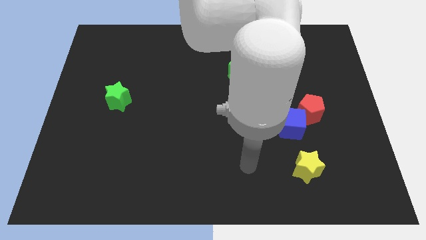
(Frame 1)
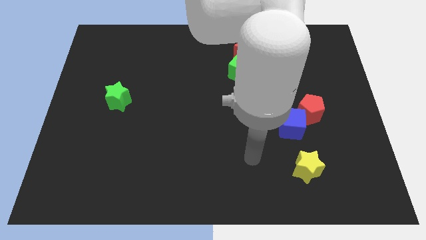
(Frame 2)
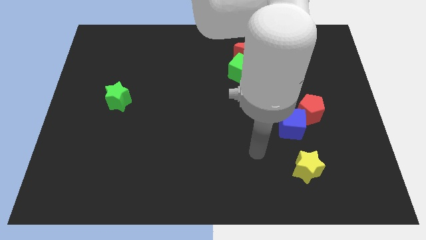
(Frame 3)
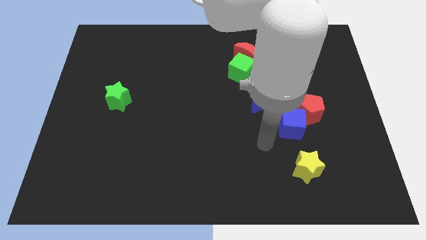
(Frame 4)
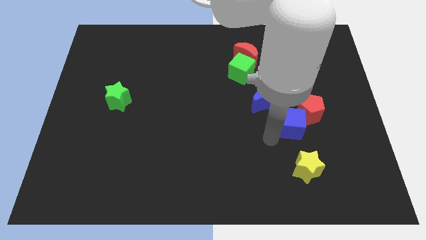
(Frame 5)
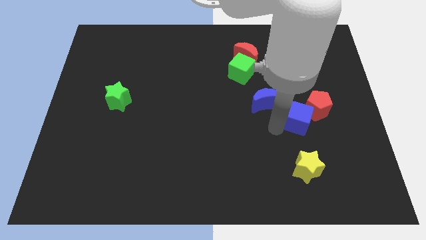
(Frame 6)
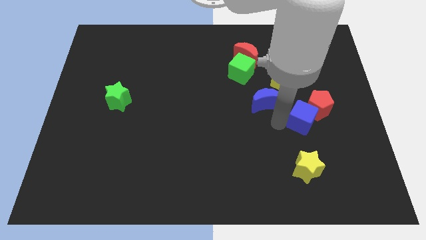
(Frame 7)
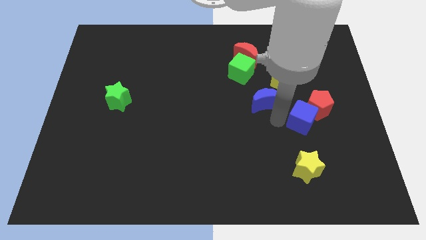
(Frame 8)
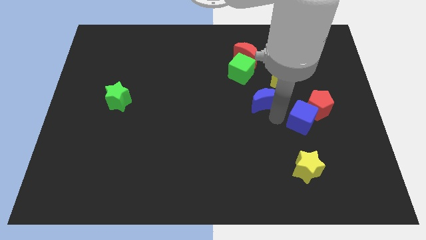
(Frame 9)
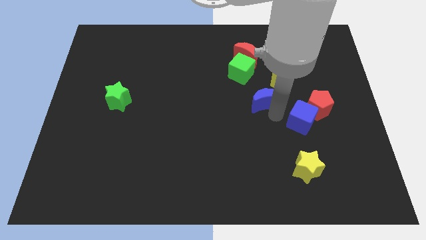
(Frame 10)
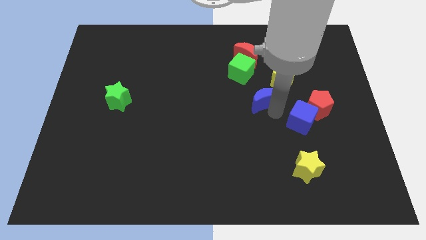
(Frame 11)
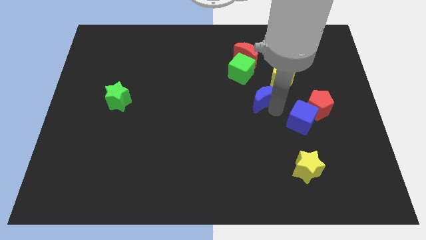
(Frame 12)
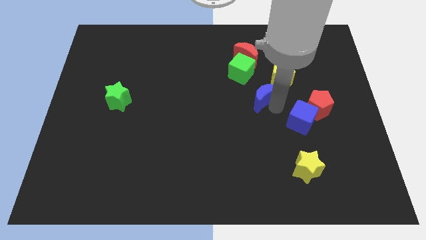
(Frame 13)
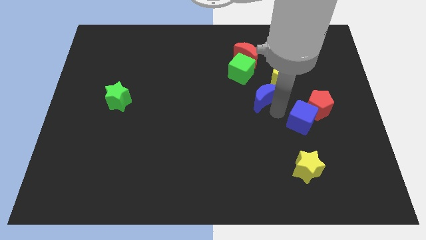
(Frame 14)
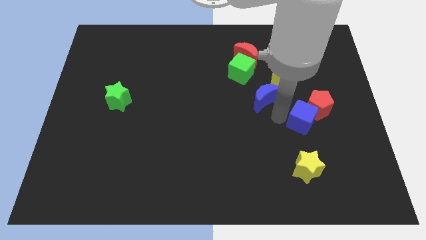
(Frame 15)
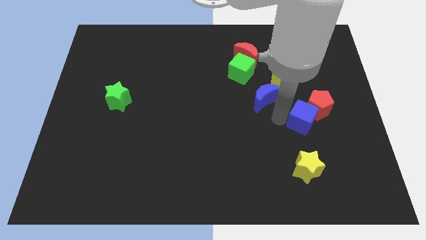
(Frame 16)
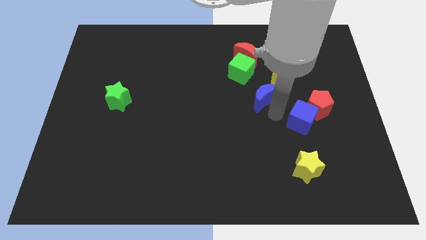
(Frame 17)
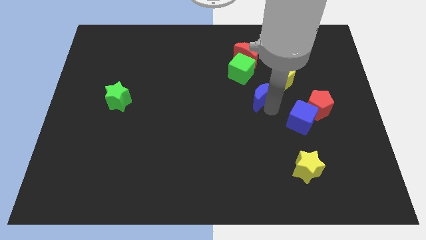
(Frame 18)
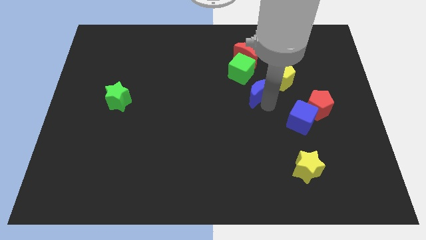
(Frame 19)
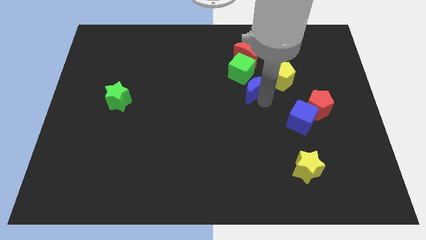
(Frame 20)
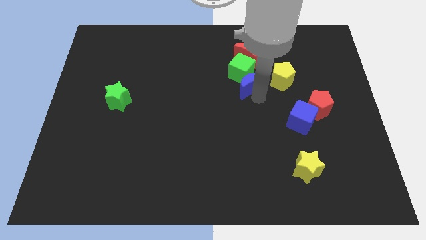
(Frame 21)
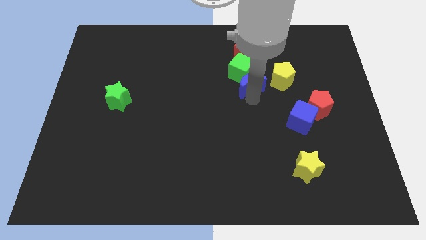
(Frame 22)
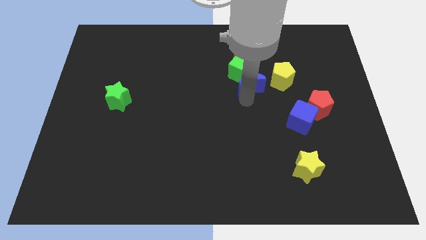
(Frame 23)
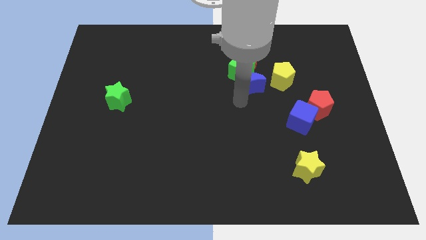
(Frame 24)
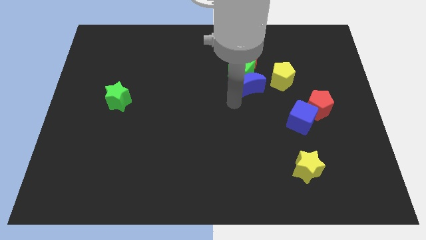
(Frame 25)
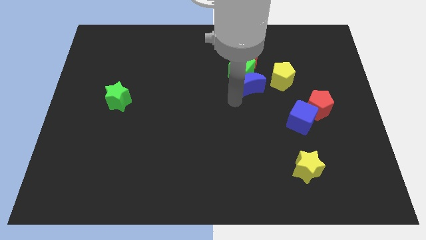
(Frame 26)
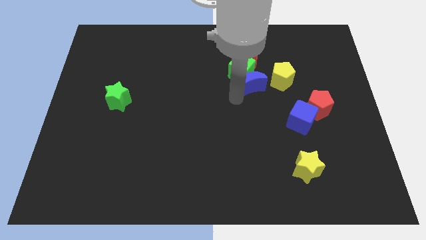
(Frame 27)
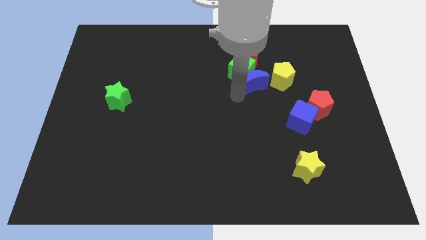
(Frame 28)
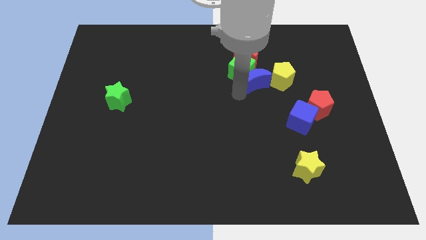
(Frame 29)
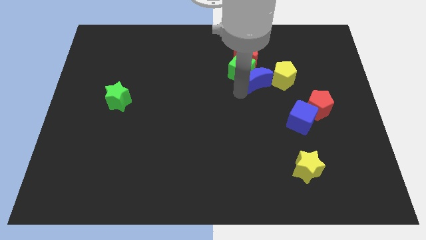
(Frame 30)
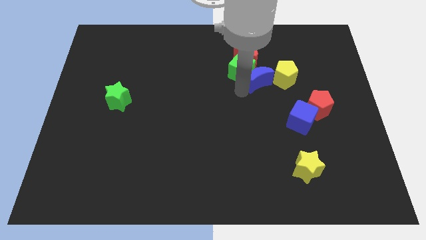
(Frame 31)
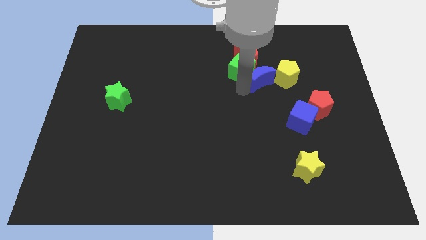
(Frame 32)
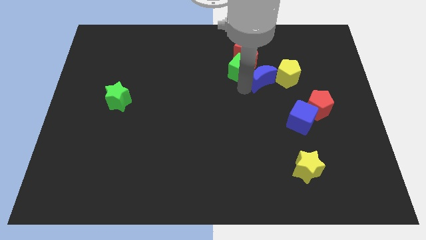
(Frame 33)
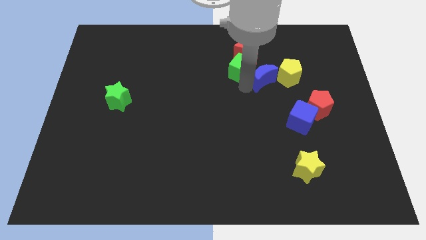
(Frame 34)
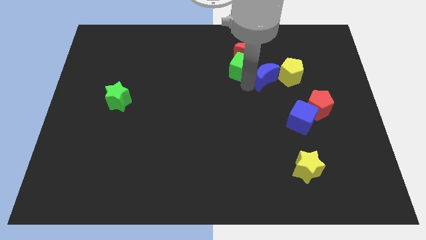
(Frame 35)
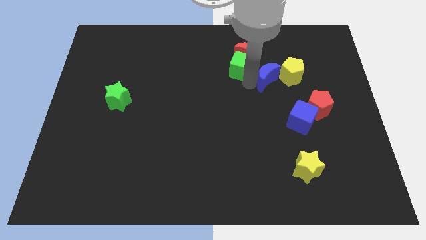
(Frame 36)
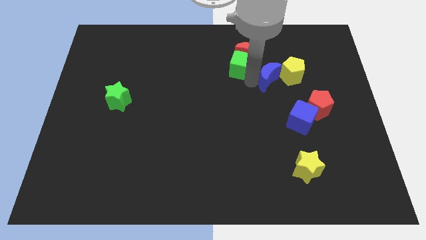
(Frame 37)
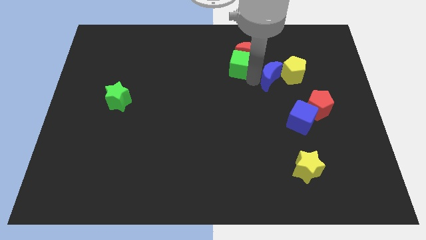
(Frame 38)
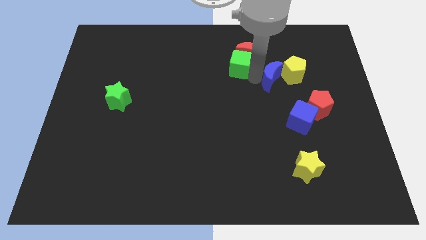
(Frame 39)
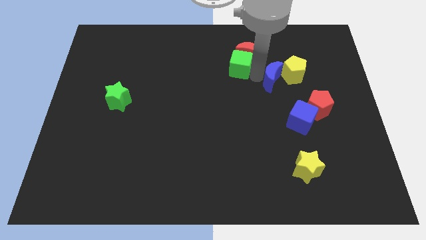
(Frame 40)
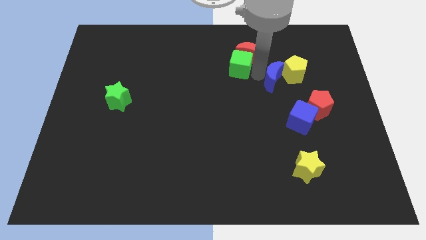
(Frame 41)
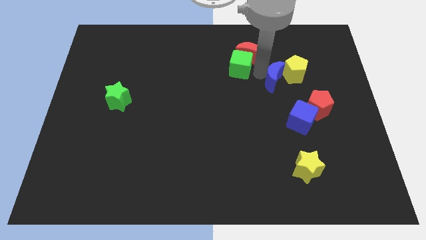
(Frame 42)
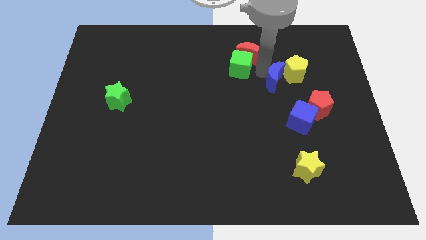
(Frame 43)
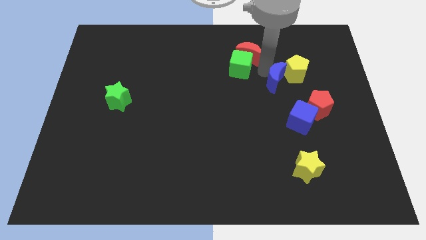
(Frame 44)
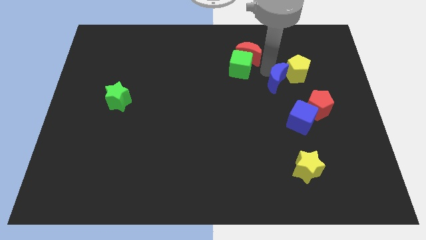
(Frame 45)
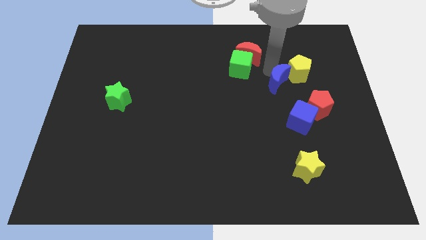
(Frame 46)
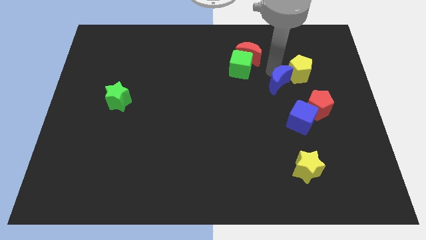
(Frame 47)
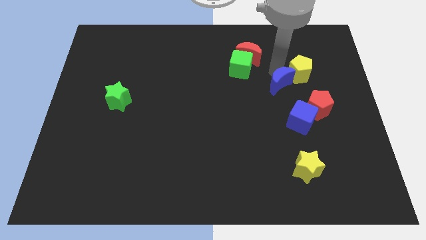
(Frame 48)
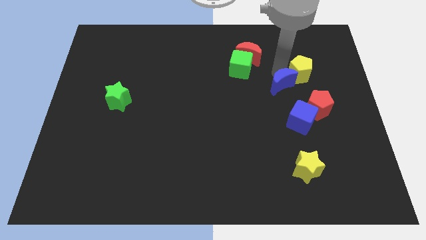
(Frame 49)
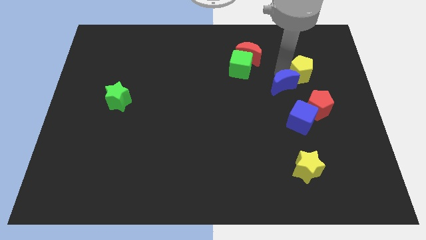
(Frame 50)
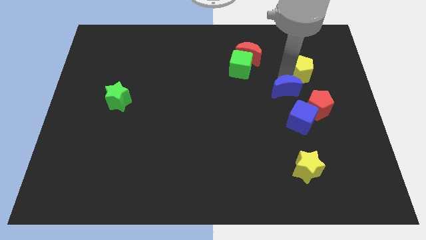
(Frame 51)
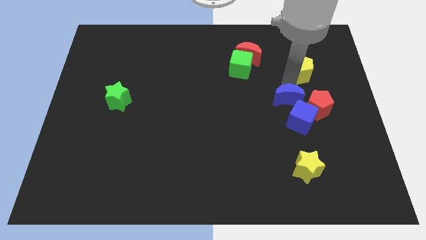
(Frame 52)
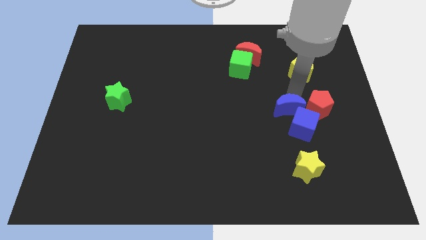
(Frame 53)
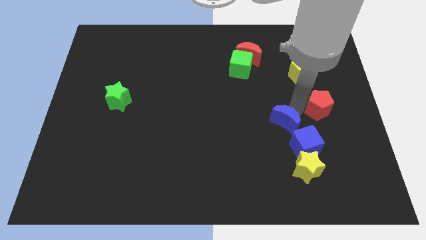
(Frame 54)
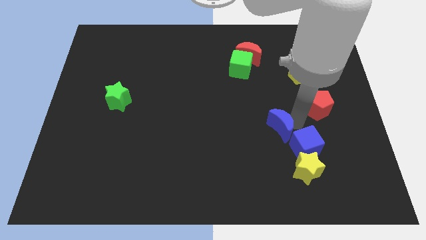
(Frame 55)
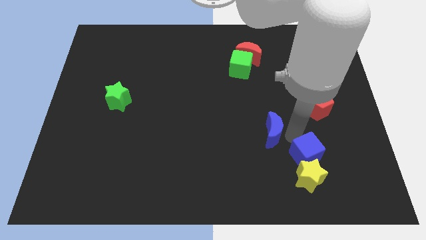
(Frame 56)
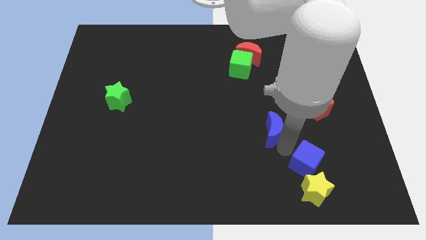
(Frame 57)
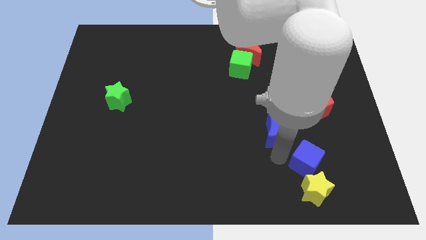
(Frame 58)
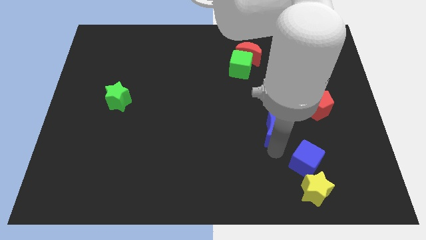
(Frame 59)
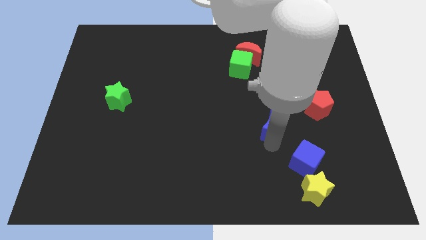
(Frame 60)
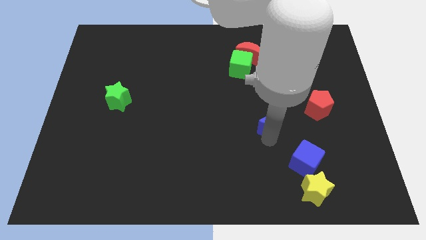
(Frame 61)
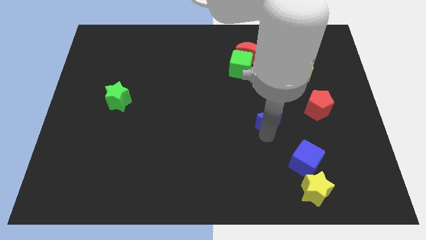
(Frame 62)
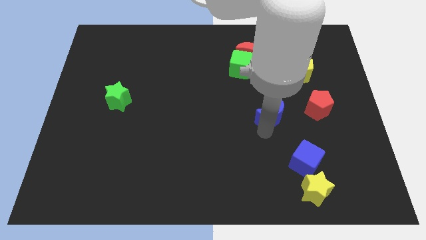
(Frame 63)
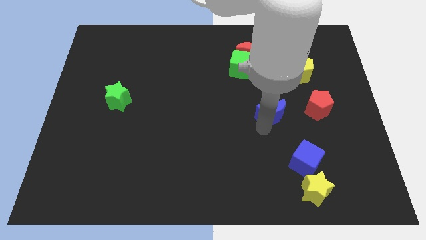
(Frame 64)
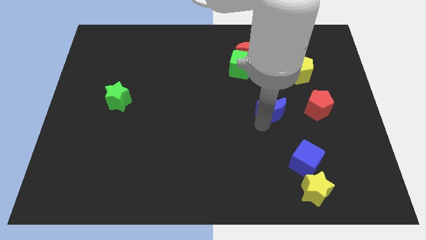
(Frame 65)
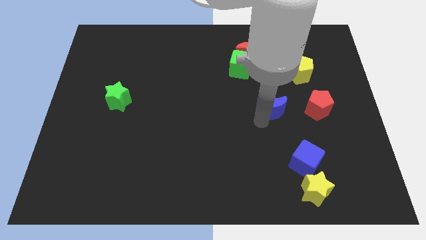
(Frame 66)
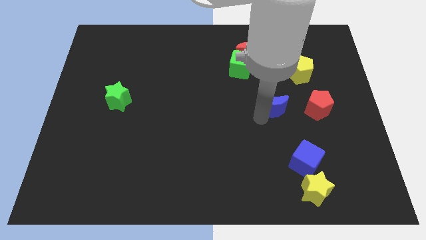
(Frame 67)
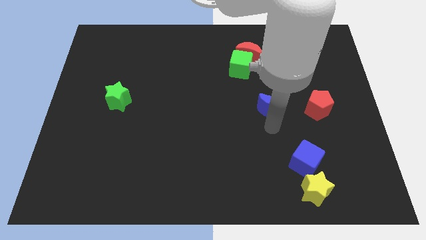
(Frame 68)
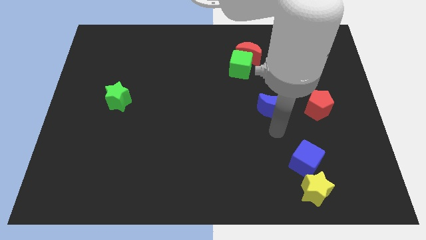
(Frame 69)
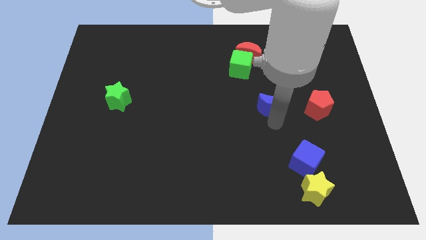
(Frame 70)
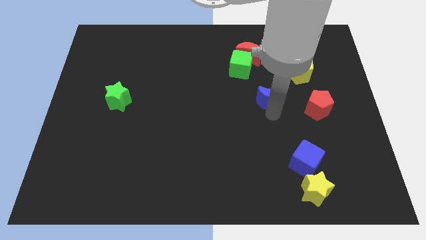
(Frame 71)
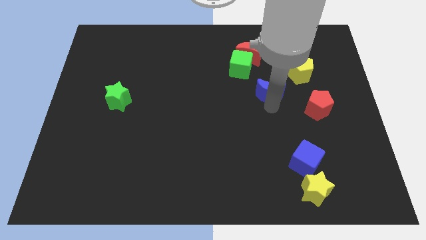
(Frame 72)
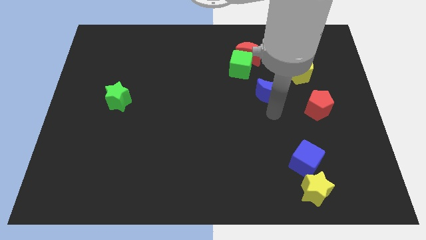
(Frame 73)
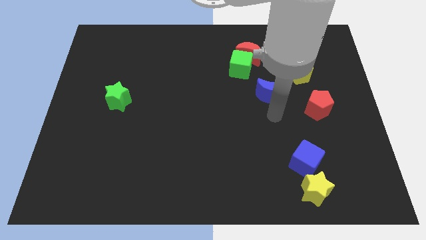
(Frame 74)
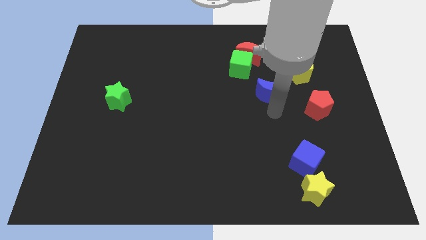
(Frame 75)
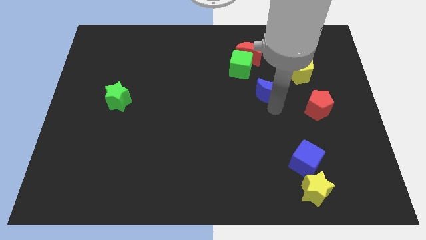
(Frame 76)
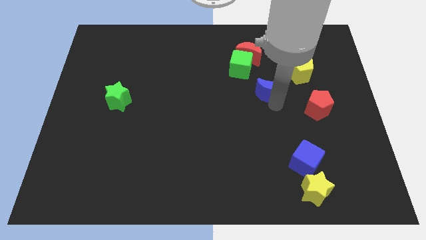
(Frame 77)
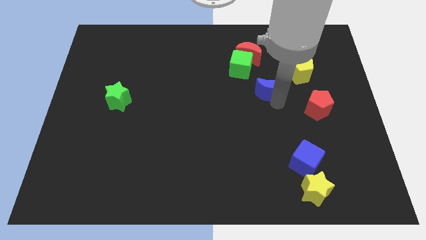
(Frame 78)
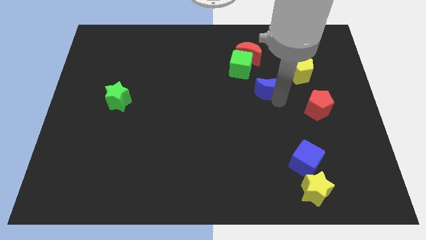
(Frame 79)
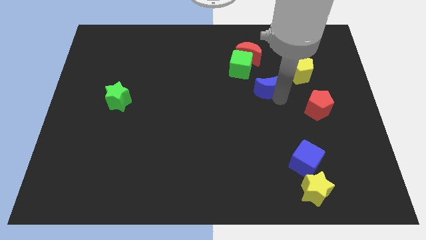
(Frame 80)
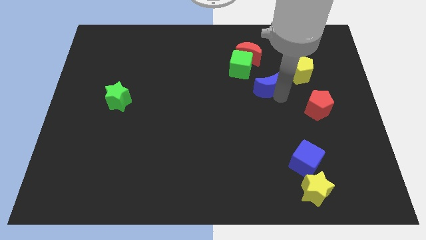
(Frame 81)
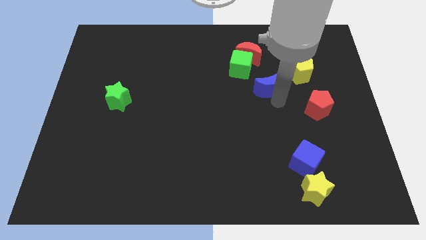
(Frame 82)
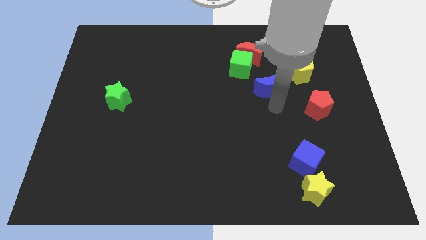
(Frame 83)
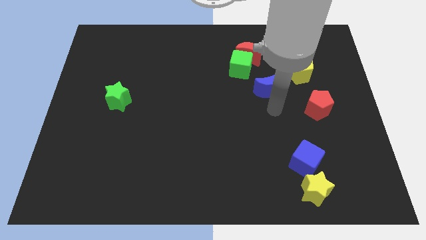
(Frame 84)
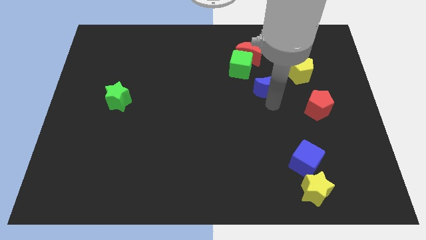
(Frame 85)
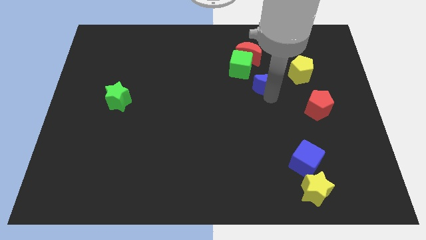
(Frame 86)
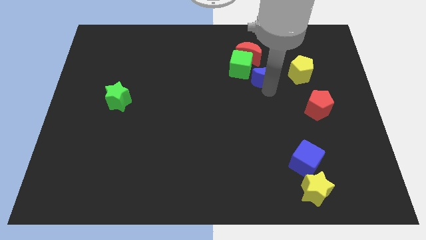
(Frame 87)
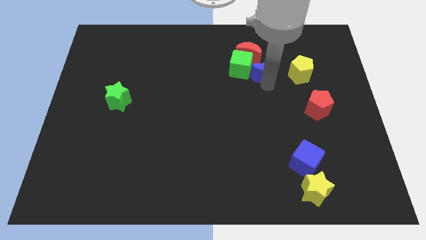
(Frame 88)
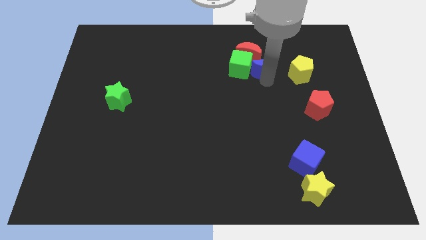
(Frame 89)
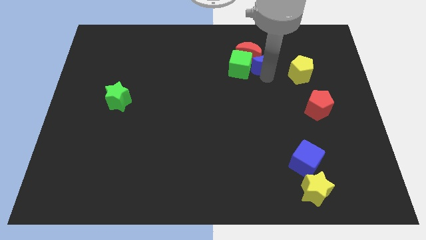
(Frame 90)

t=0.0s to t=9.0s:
move the blue moon to the red moon
